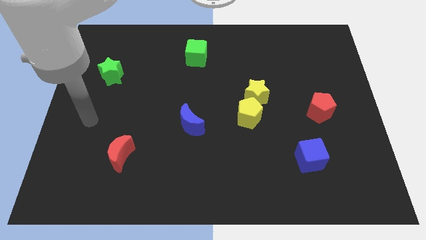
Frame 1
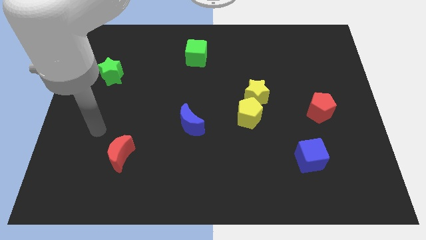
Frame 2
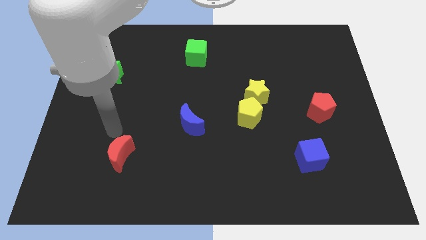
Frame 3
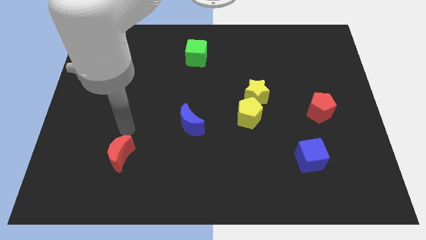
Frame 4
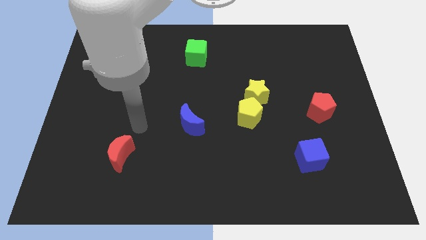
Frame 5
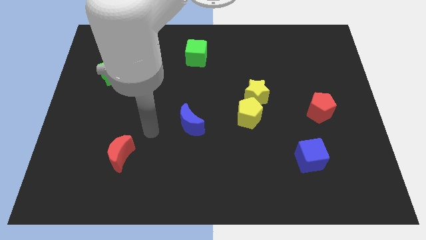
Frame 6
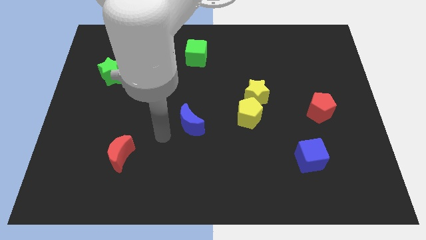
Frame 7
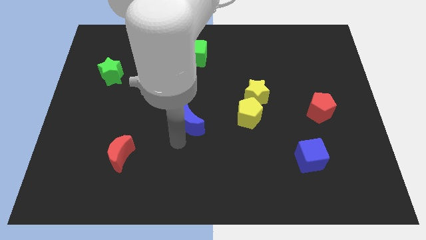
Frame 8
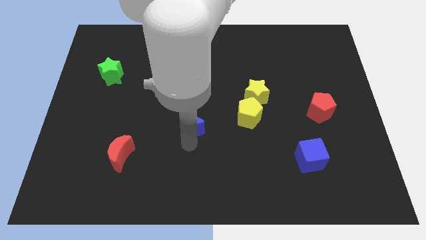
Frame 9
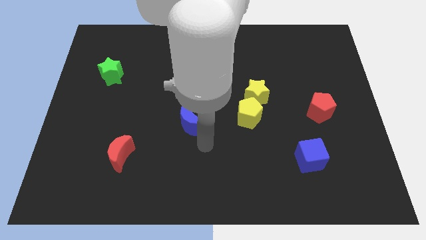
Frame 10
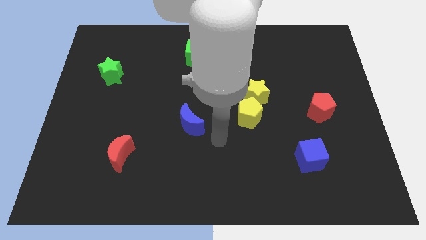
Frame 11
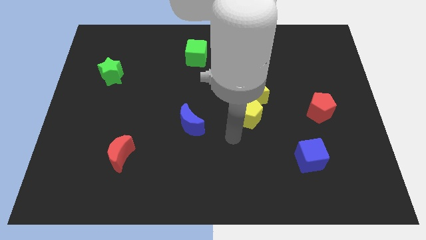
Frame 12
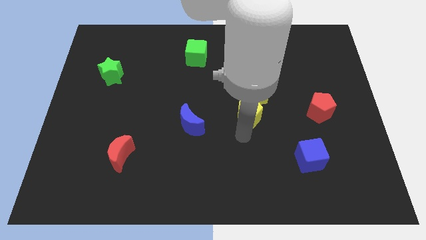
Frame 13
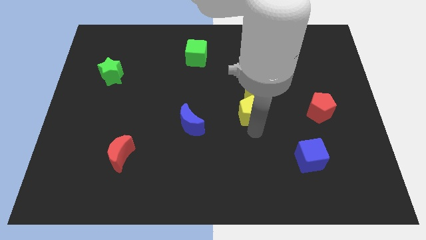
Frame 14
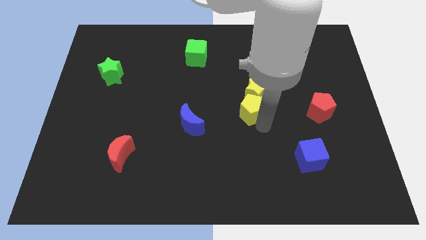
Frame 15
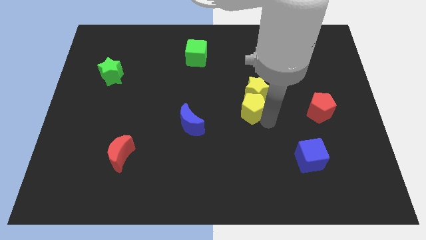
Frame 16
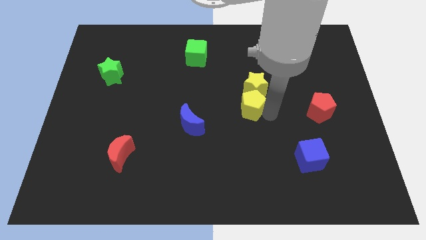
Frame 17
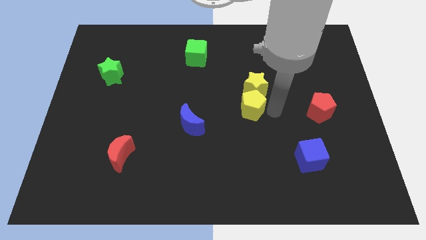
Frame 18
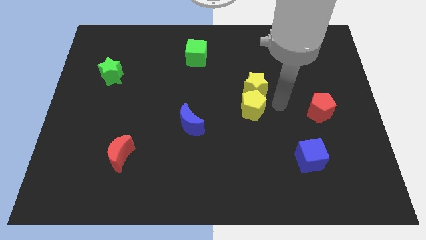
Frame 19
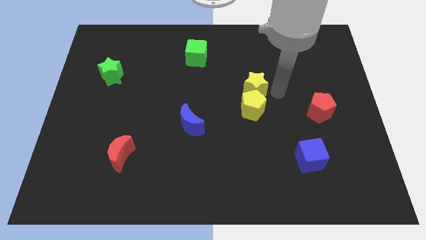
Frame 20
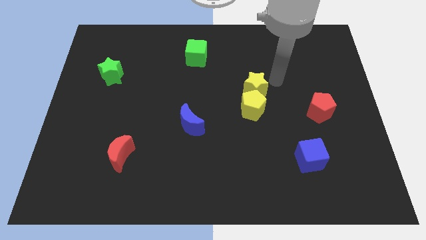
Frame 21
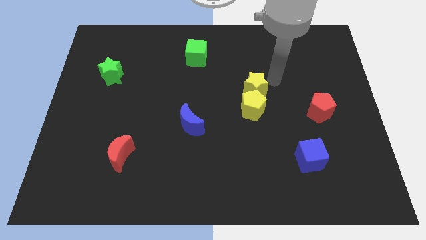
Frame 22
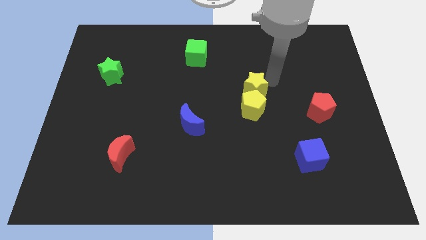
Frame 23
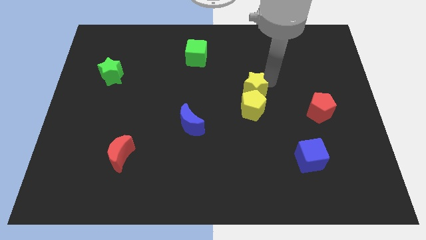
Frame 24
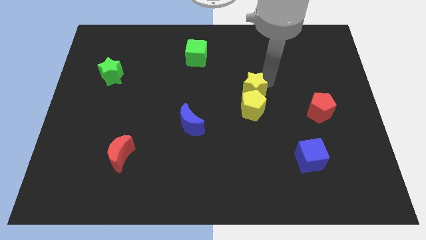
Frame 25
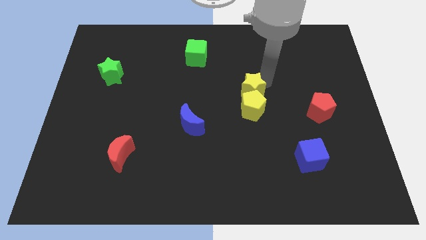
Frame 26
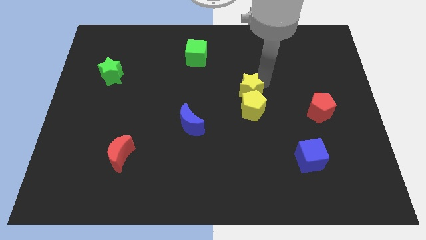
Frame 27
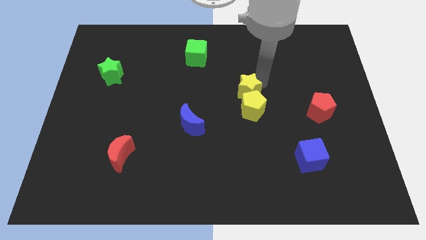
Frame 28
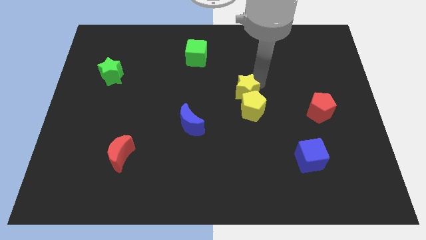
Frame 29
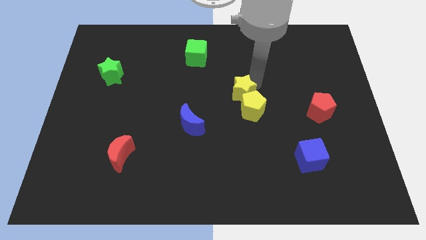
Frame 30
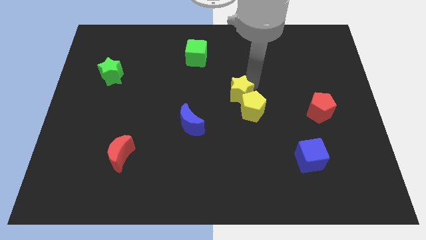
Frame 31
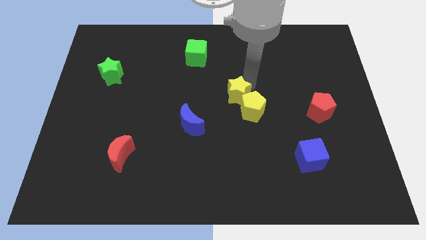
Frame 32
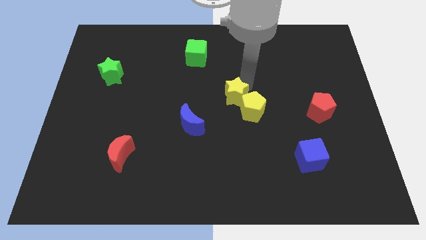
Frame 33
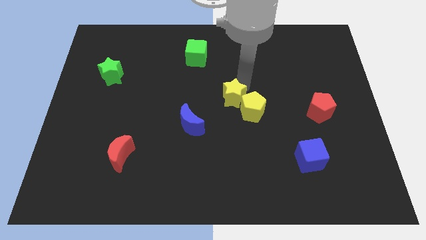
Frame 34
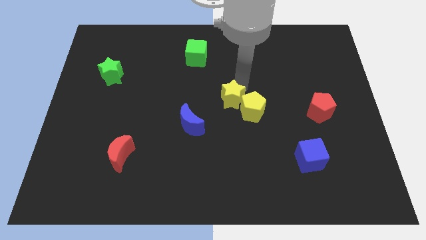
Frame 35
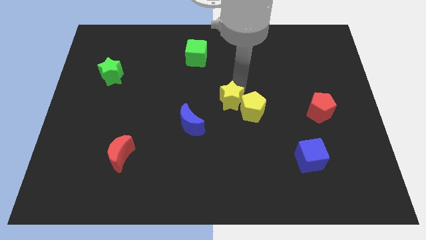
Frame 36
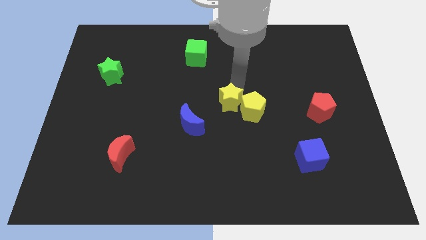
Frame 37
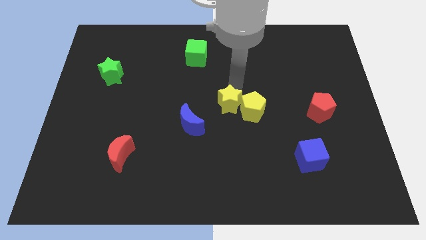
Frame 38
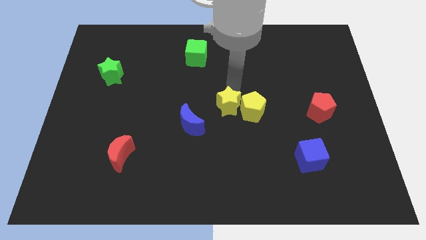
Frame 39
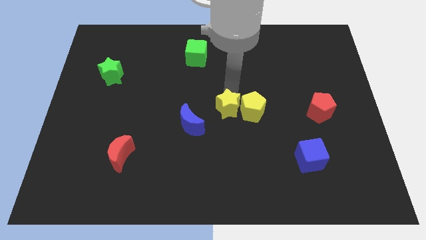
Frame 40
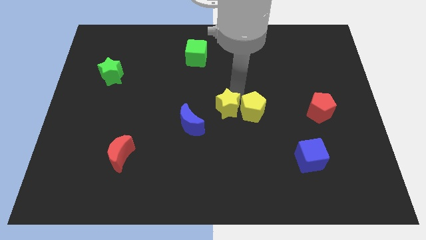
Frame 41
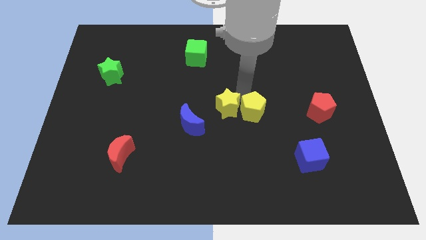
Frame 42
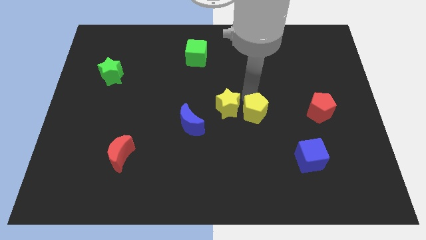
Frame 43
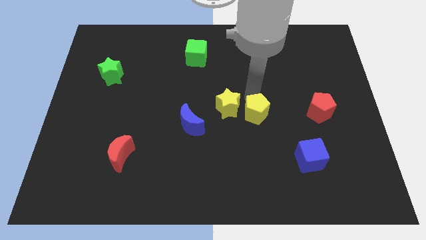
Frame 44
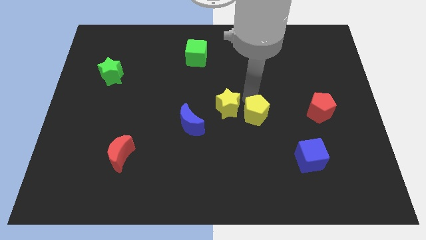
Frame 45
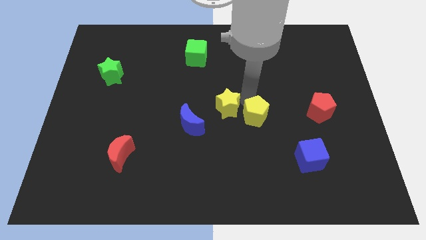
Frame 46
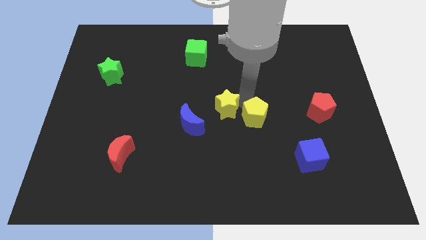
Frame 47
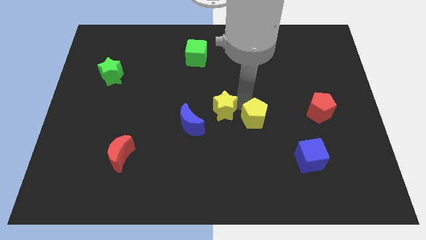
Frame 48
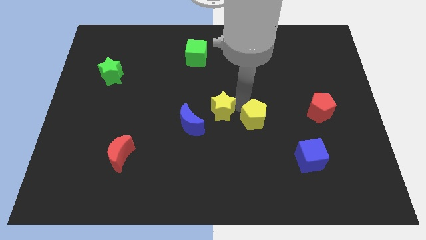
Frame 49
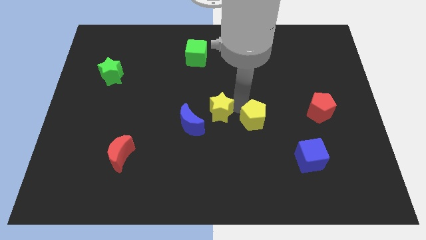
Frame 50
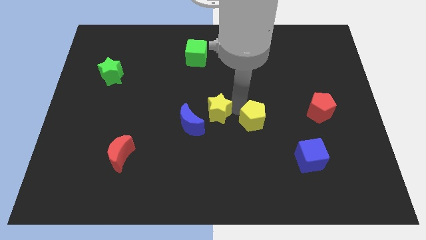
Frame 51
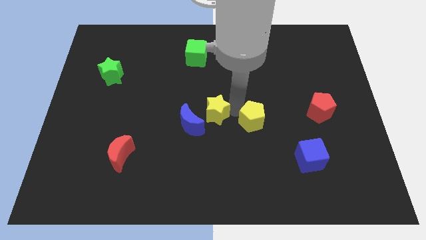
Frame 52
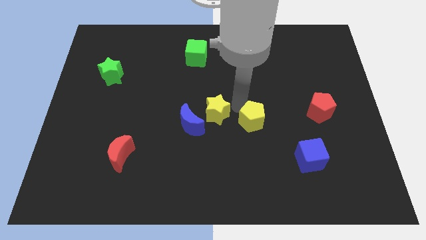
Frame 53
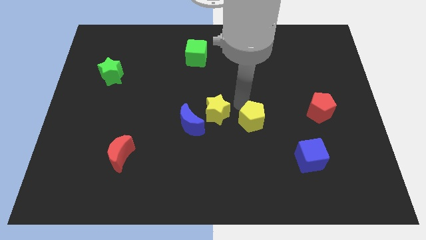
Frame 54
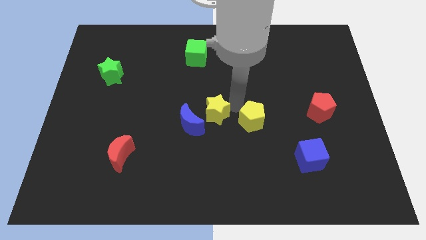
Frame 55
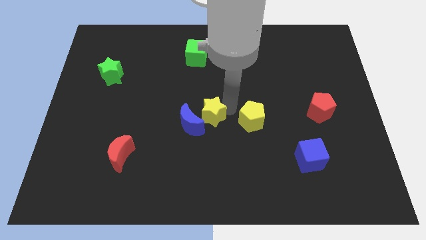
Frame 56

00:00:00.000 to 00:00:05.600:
slide the yellow star next to the blue moon
